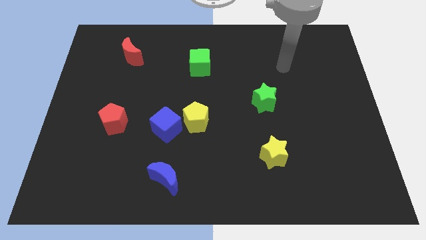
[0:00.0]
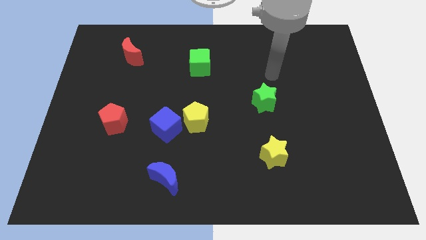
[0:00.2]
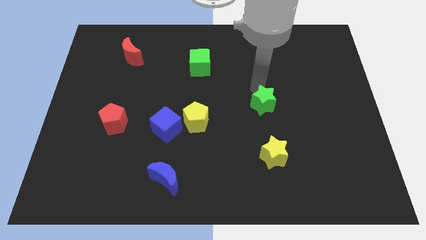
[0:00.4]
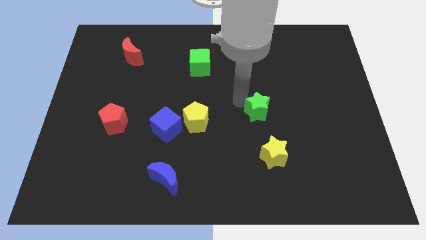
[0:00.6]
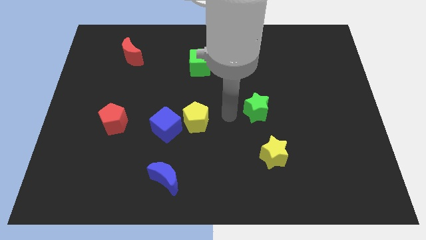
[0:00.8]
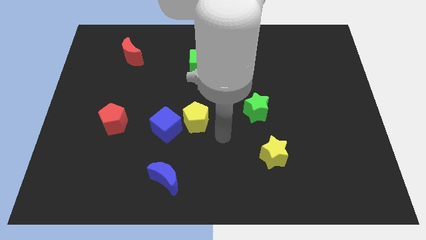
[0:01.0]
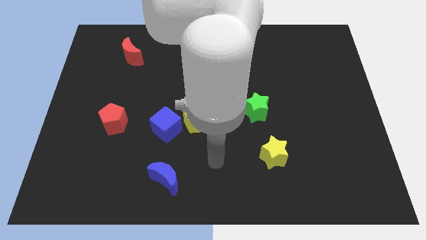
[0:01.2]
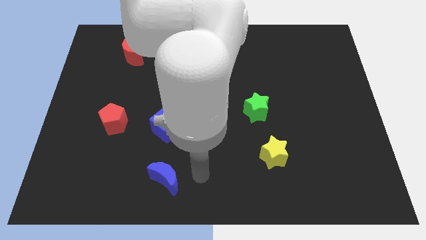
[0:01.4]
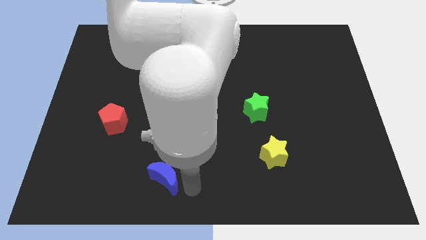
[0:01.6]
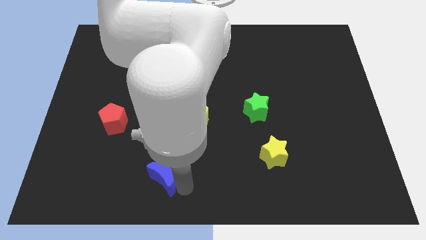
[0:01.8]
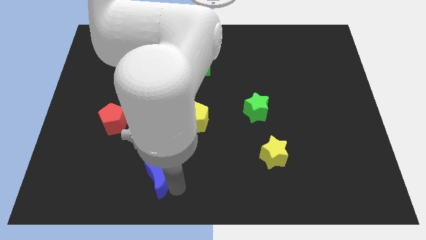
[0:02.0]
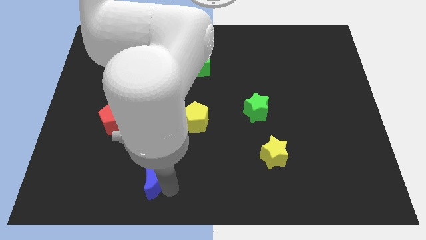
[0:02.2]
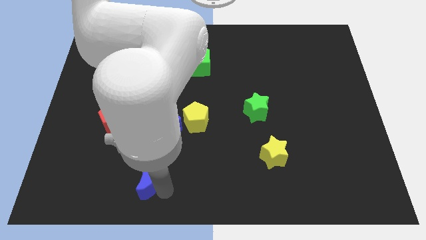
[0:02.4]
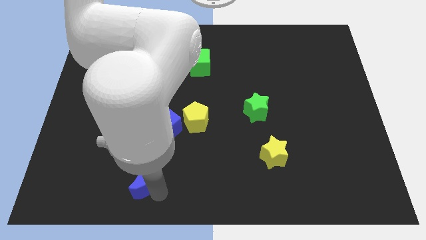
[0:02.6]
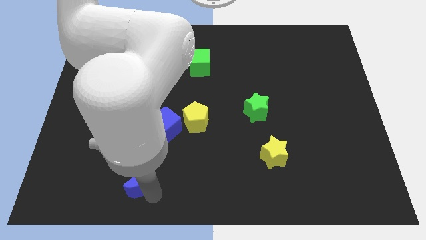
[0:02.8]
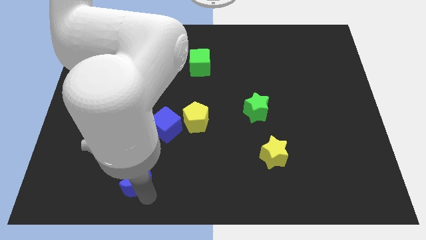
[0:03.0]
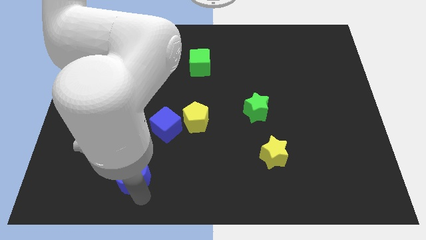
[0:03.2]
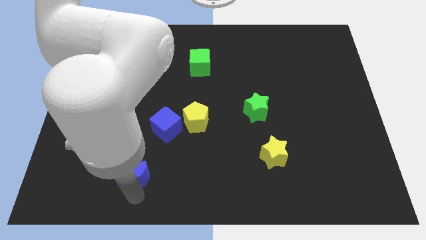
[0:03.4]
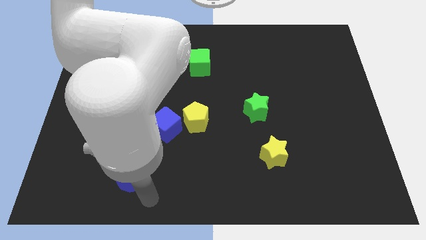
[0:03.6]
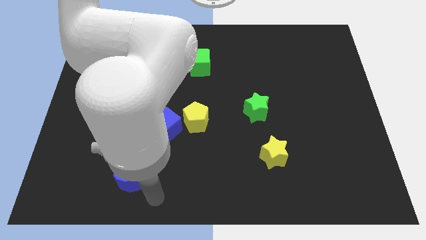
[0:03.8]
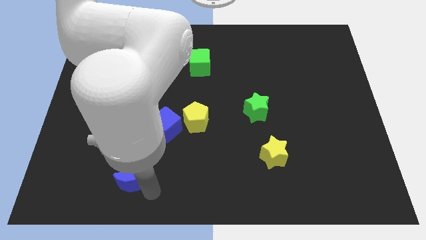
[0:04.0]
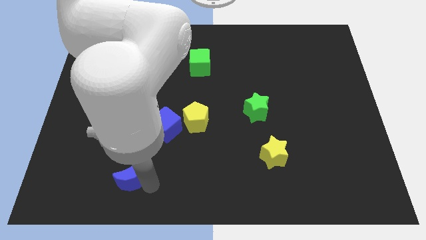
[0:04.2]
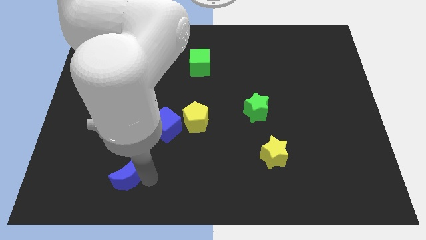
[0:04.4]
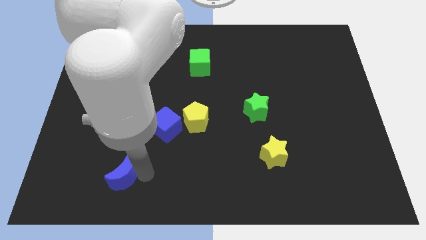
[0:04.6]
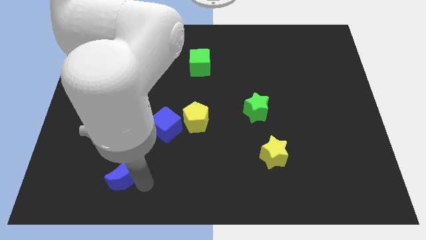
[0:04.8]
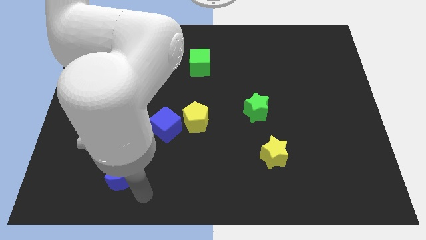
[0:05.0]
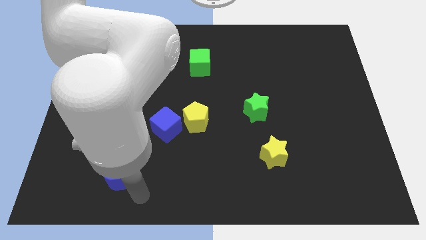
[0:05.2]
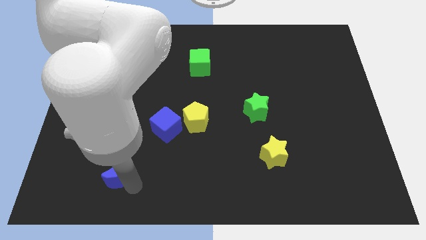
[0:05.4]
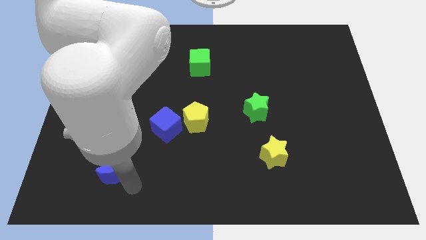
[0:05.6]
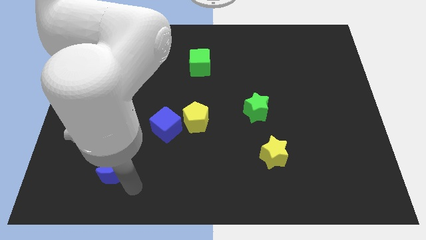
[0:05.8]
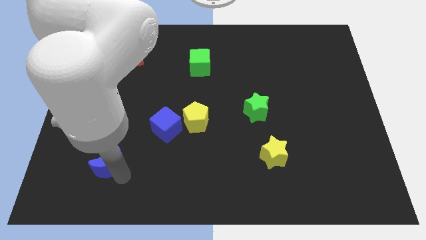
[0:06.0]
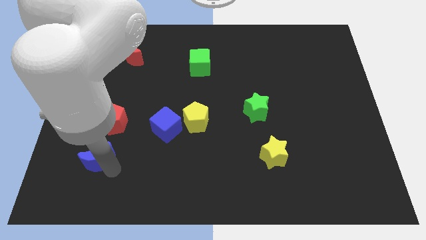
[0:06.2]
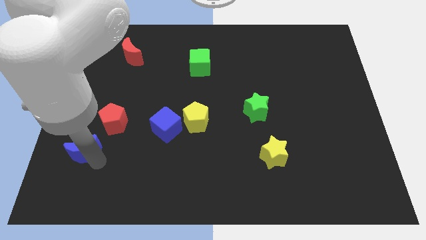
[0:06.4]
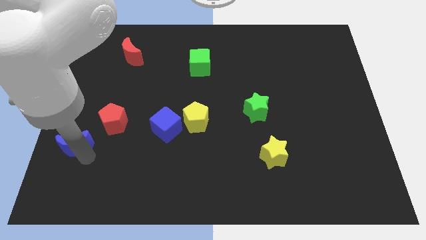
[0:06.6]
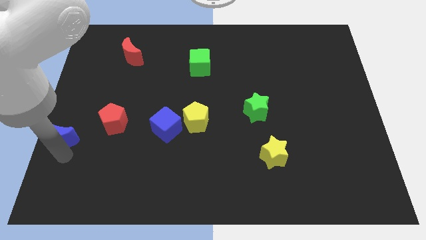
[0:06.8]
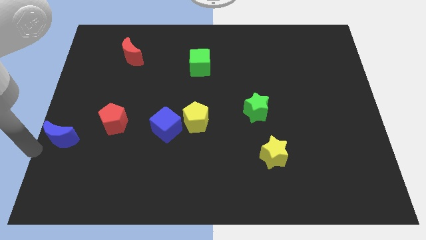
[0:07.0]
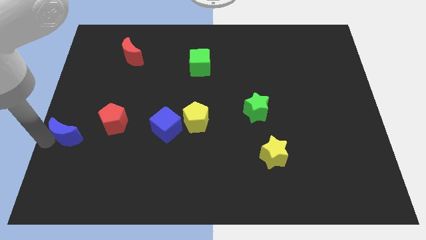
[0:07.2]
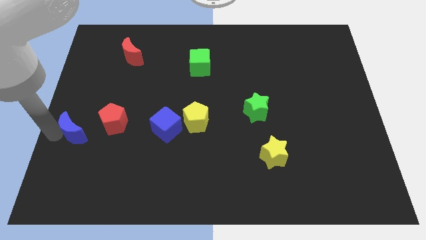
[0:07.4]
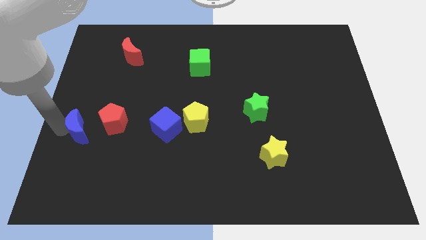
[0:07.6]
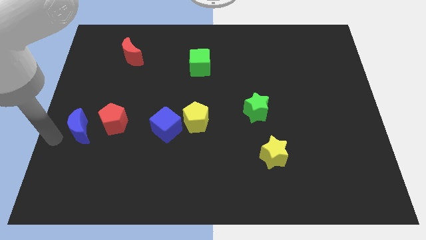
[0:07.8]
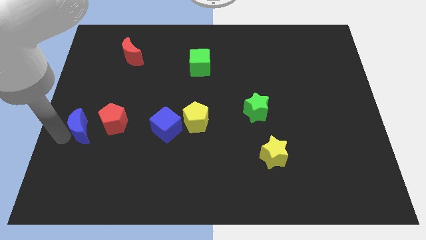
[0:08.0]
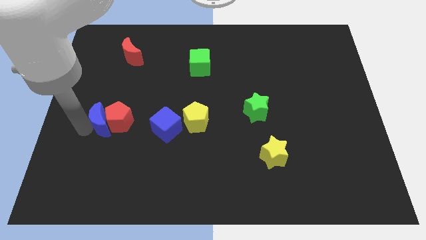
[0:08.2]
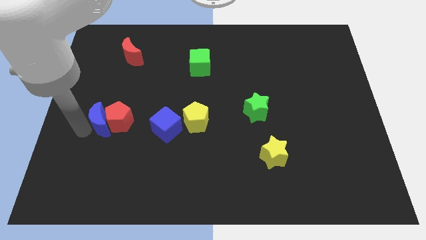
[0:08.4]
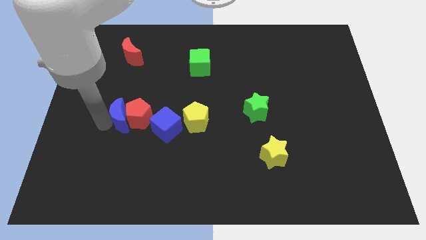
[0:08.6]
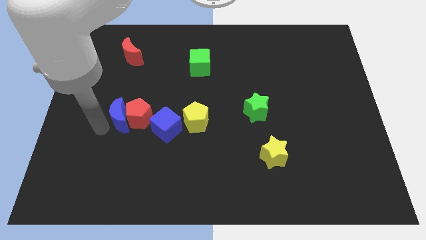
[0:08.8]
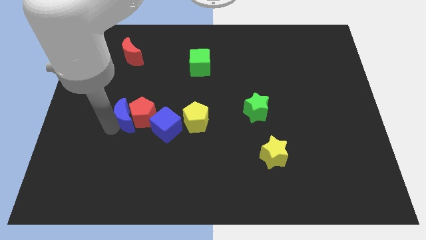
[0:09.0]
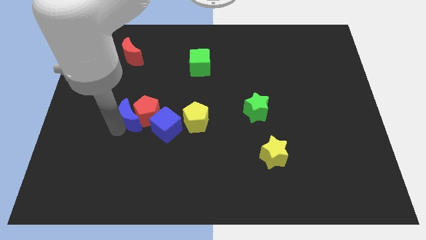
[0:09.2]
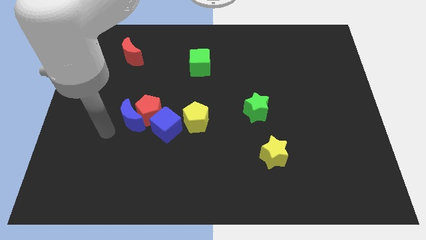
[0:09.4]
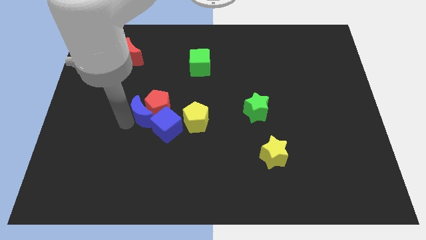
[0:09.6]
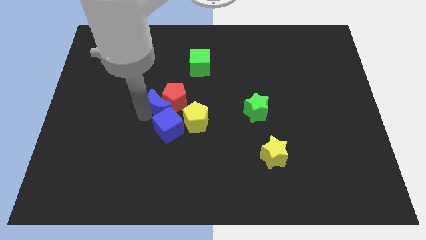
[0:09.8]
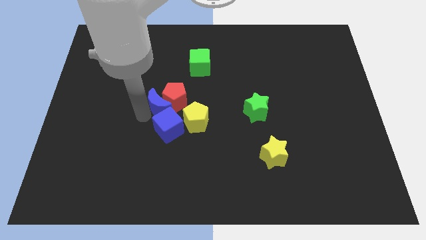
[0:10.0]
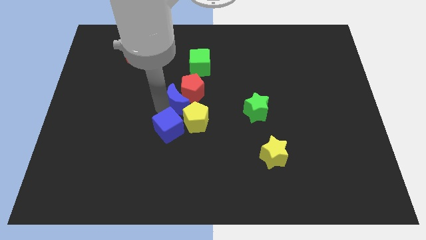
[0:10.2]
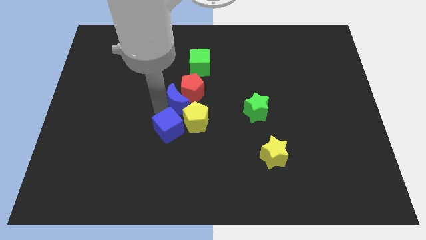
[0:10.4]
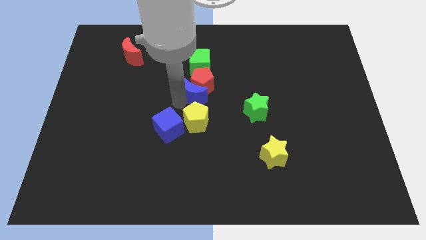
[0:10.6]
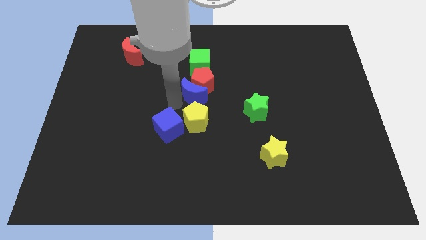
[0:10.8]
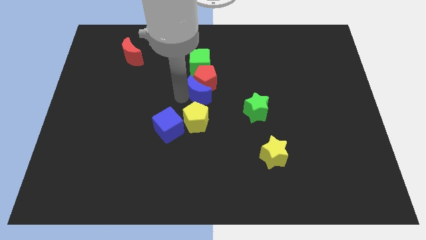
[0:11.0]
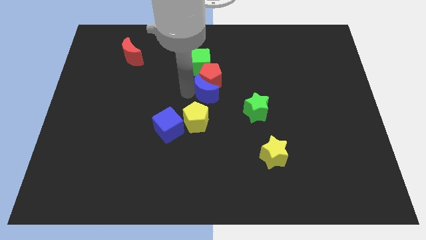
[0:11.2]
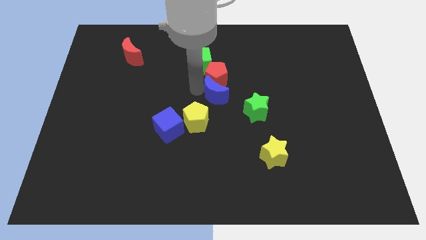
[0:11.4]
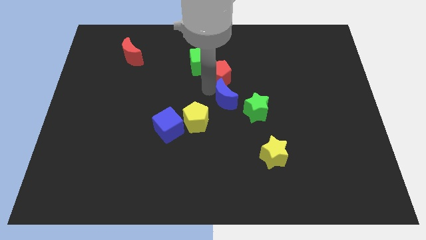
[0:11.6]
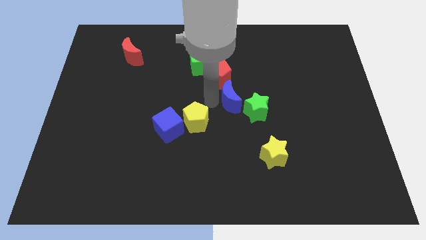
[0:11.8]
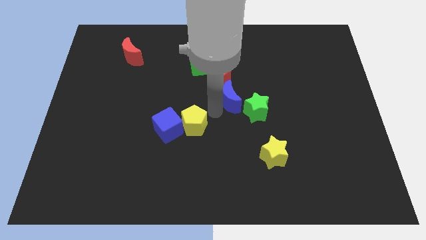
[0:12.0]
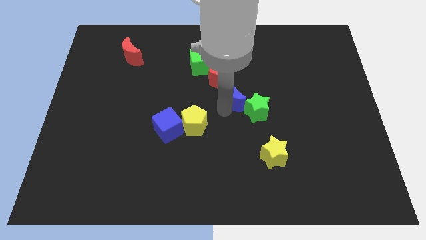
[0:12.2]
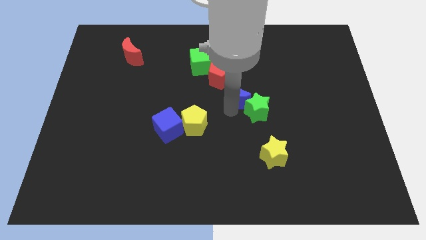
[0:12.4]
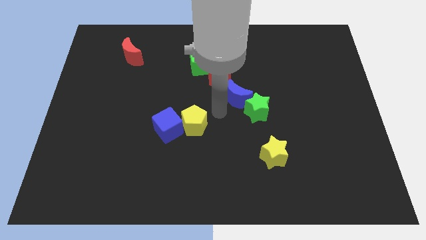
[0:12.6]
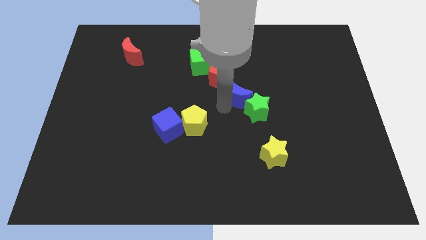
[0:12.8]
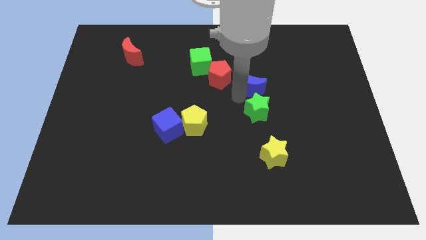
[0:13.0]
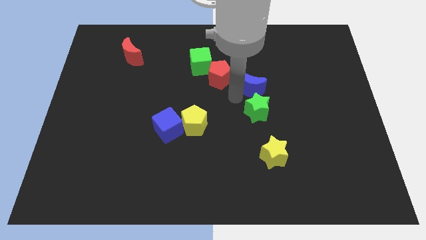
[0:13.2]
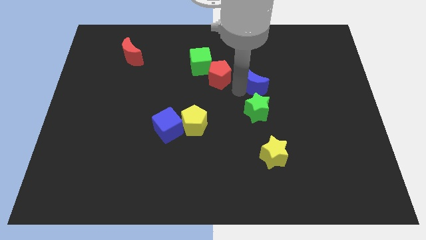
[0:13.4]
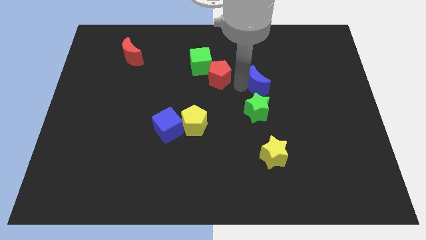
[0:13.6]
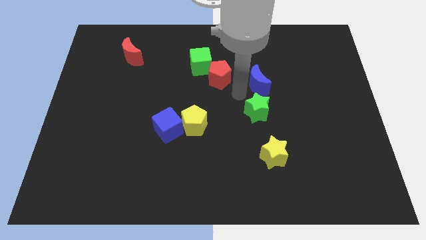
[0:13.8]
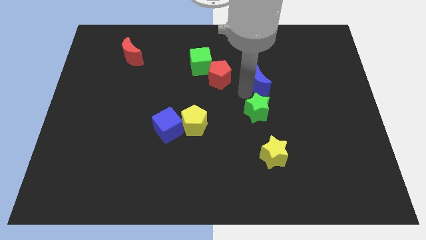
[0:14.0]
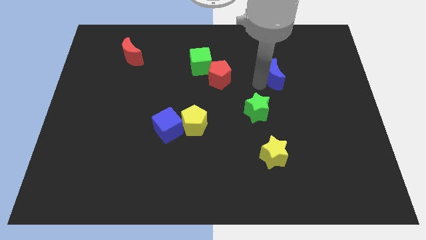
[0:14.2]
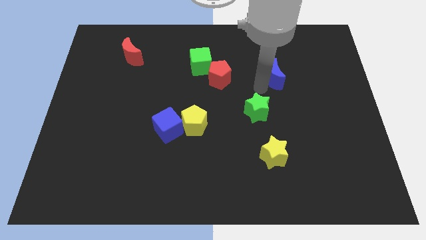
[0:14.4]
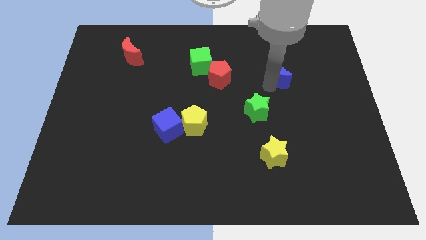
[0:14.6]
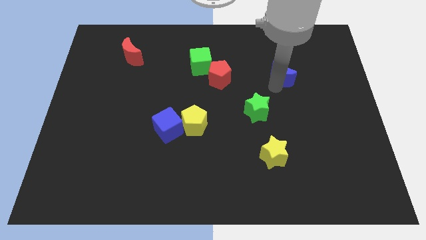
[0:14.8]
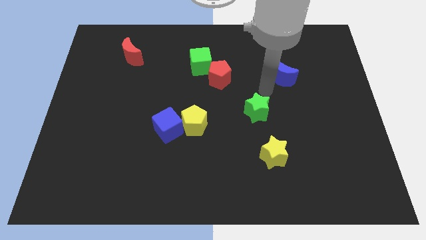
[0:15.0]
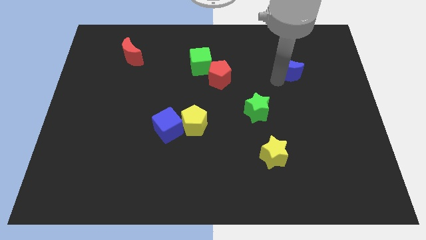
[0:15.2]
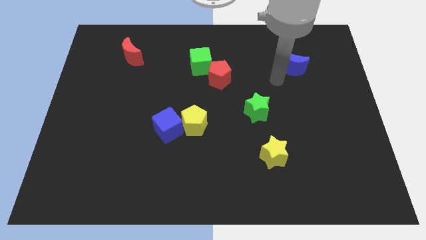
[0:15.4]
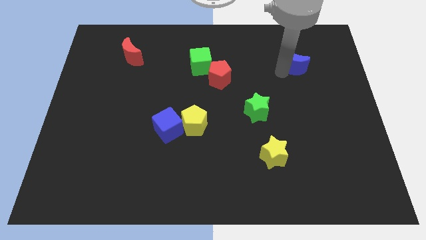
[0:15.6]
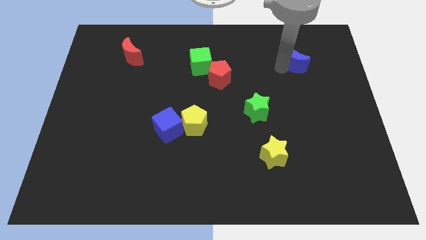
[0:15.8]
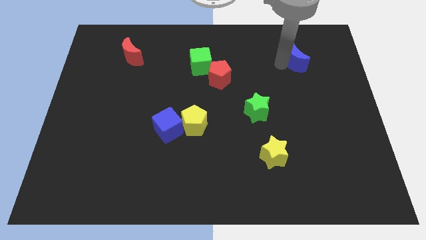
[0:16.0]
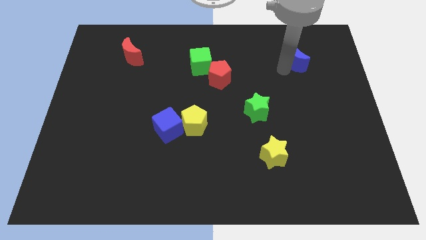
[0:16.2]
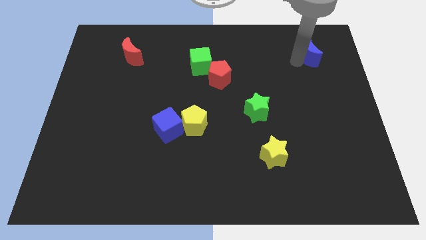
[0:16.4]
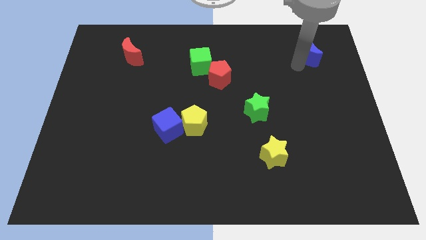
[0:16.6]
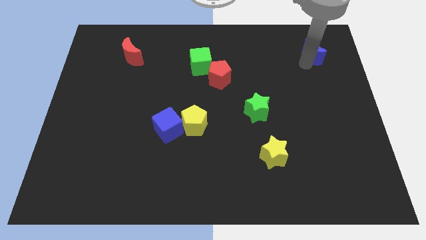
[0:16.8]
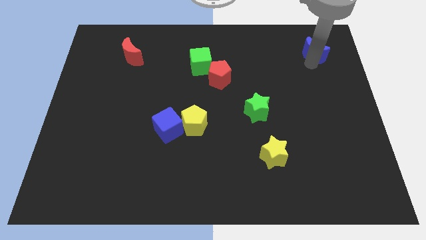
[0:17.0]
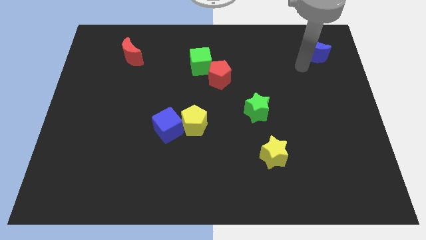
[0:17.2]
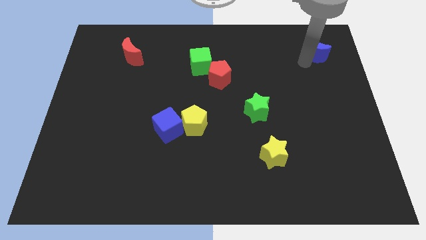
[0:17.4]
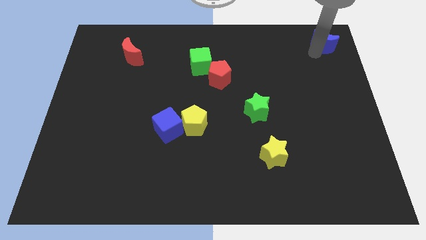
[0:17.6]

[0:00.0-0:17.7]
push the blue moon to the top right
